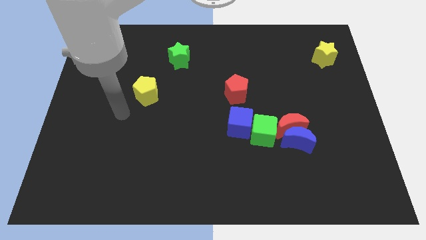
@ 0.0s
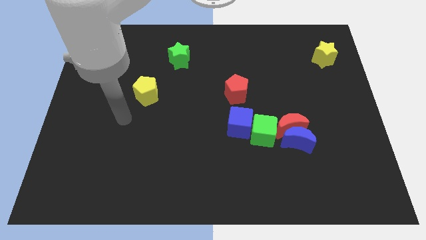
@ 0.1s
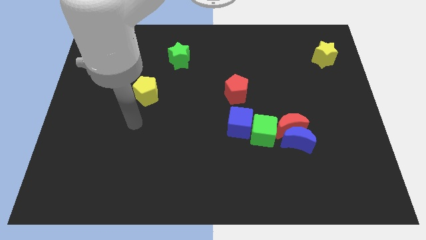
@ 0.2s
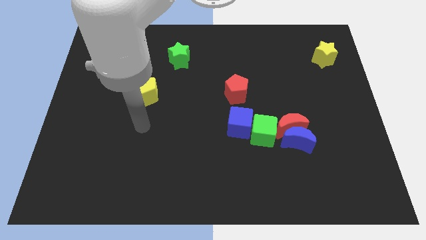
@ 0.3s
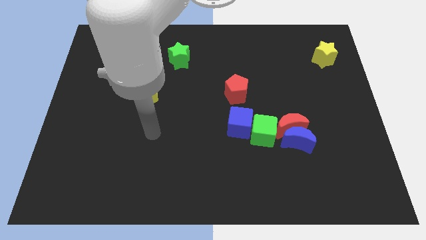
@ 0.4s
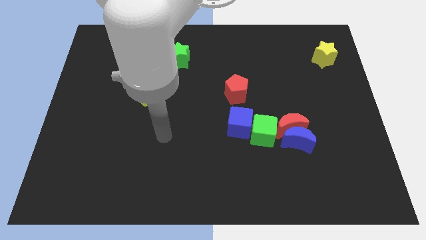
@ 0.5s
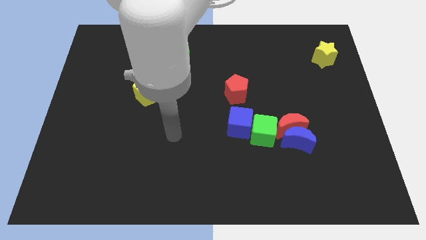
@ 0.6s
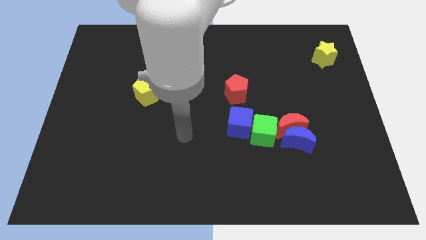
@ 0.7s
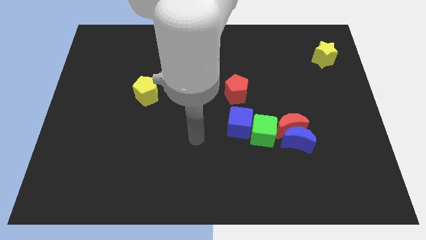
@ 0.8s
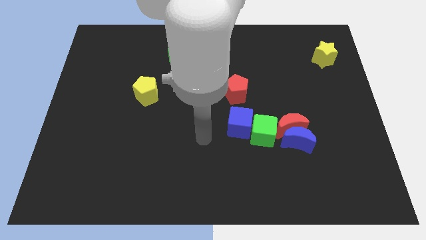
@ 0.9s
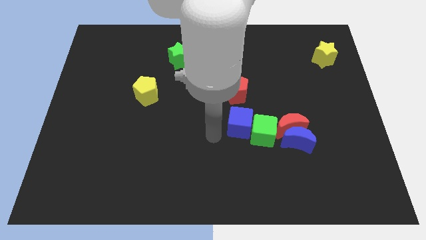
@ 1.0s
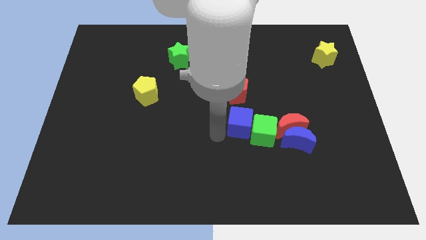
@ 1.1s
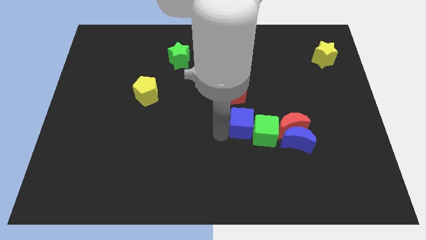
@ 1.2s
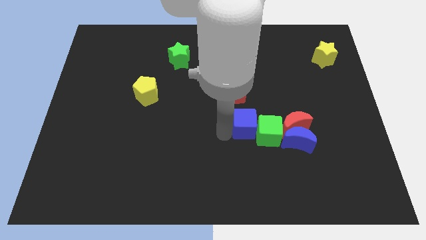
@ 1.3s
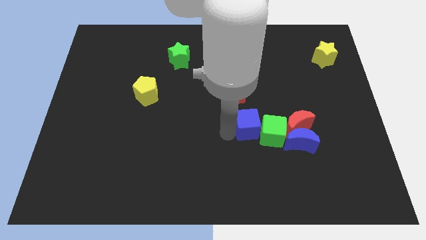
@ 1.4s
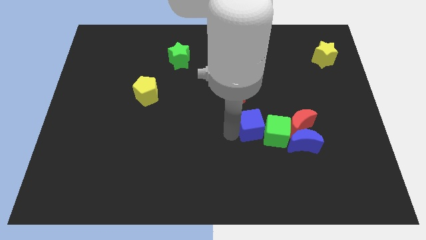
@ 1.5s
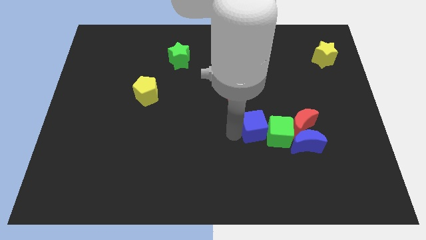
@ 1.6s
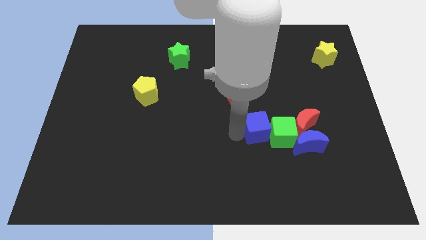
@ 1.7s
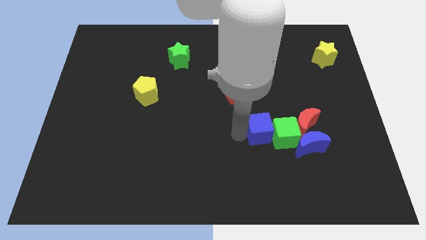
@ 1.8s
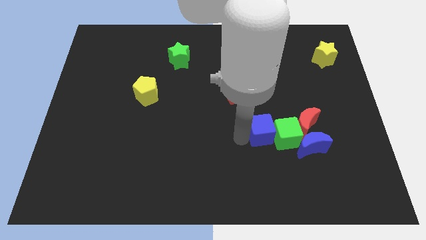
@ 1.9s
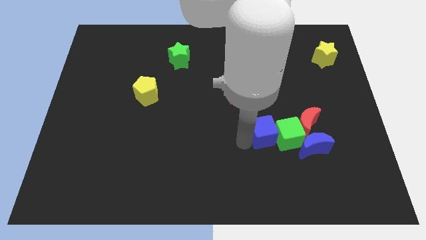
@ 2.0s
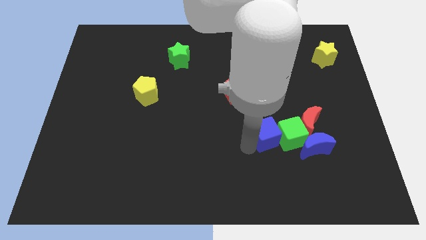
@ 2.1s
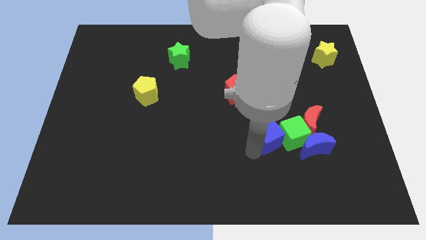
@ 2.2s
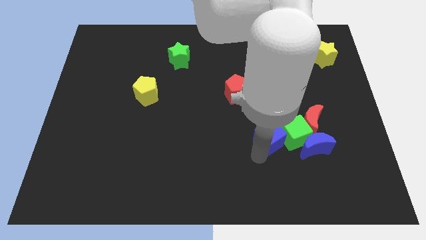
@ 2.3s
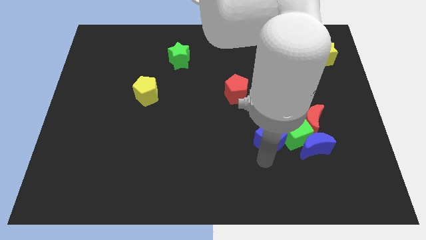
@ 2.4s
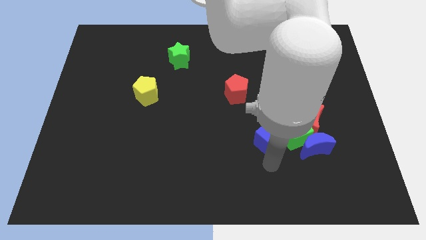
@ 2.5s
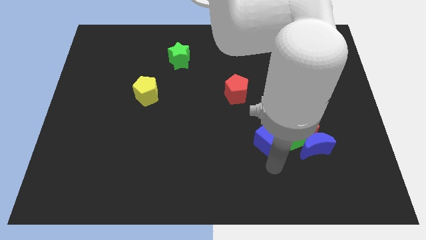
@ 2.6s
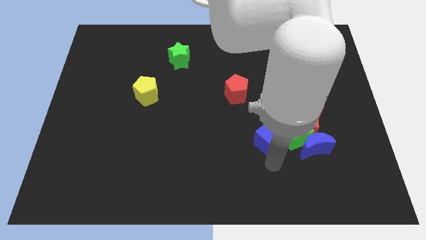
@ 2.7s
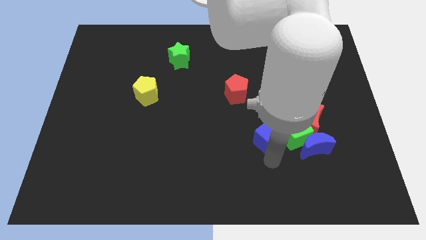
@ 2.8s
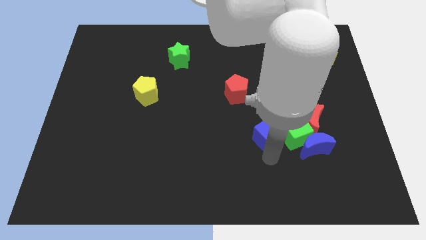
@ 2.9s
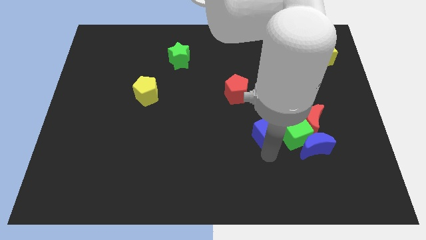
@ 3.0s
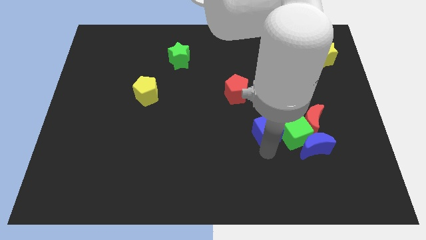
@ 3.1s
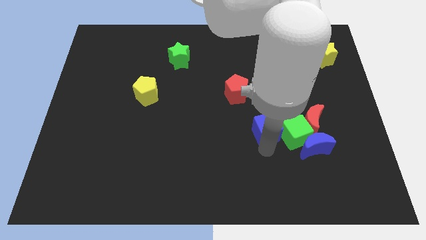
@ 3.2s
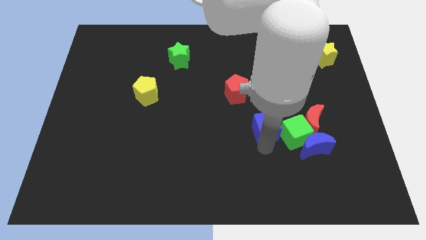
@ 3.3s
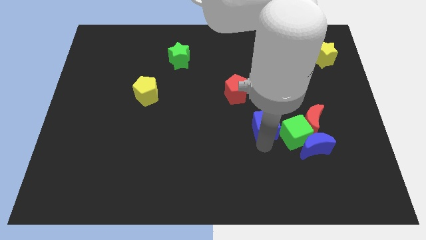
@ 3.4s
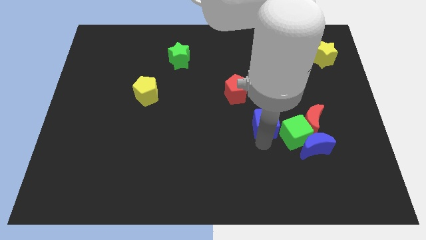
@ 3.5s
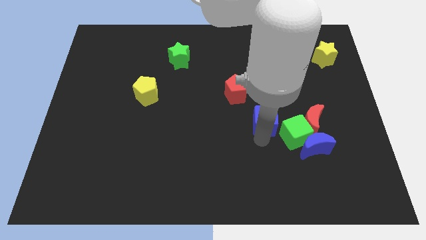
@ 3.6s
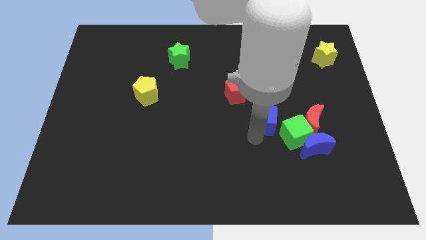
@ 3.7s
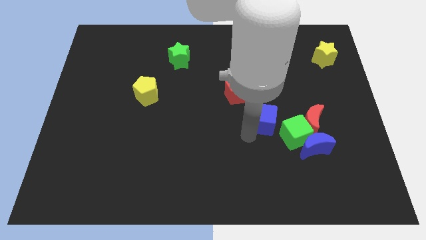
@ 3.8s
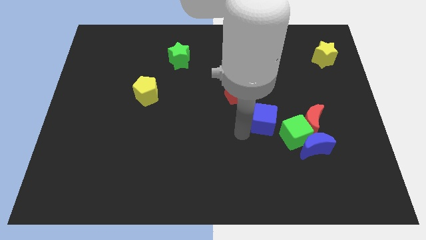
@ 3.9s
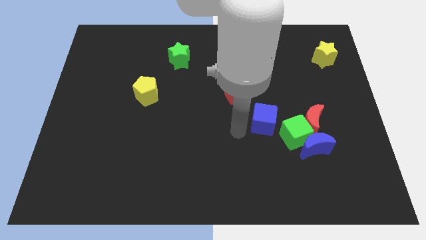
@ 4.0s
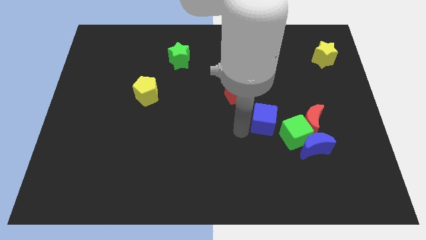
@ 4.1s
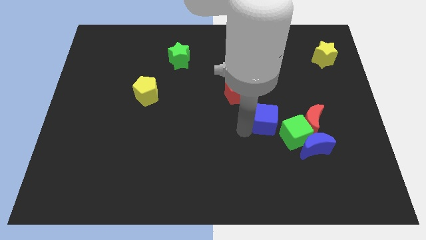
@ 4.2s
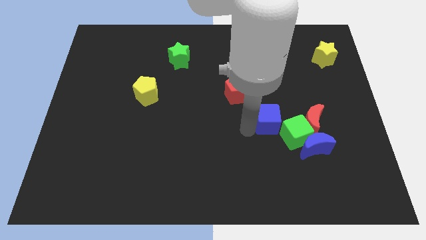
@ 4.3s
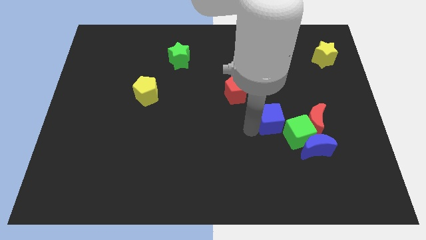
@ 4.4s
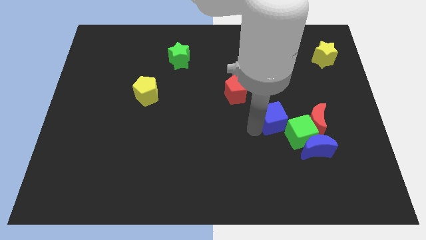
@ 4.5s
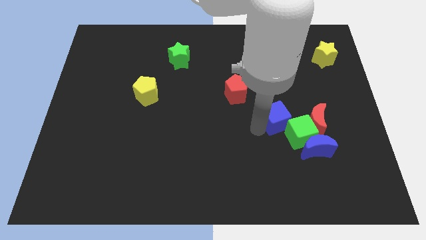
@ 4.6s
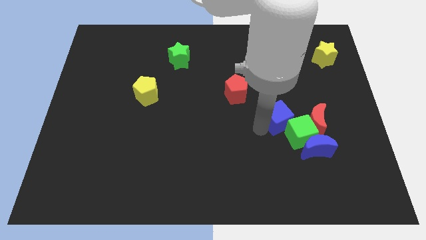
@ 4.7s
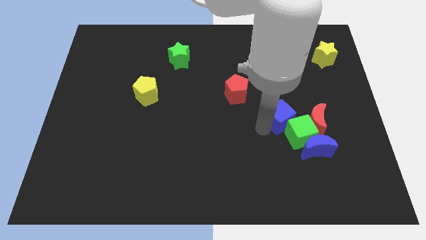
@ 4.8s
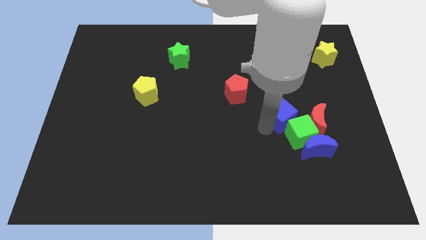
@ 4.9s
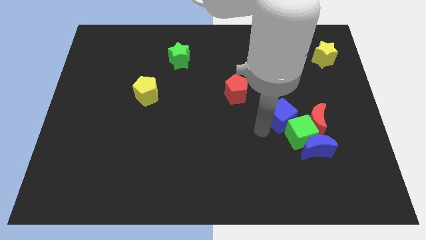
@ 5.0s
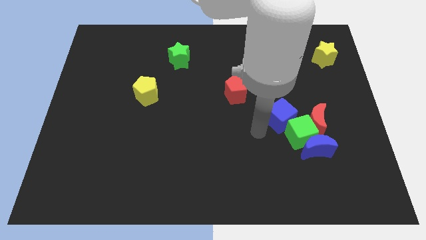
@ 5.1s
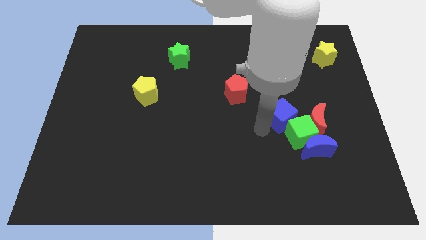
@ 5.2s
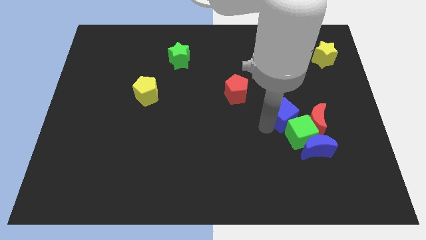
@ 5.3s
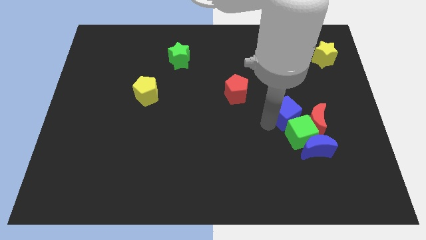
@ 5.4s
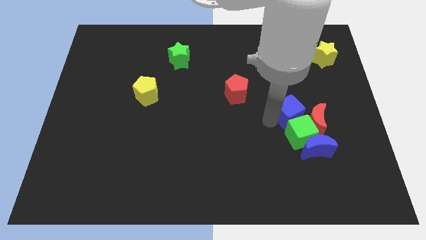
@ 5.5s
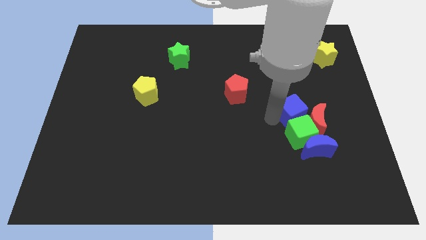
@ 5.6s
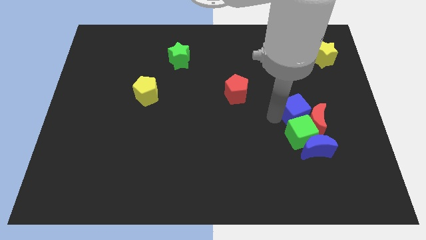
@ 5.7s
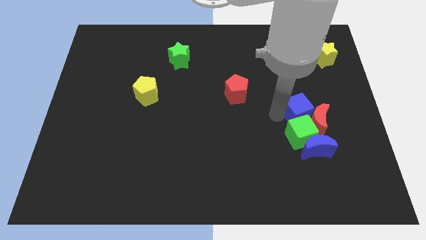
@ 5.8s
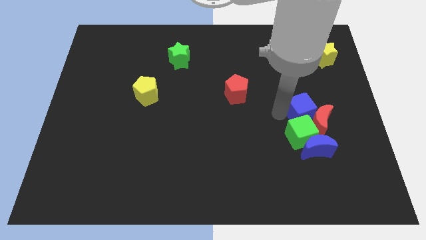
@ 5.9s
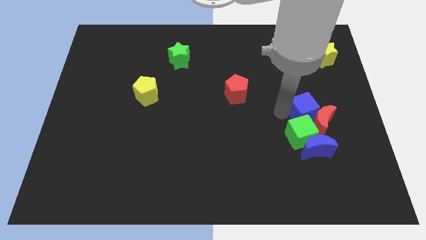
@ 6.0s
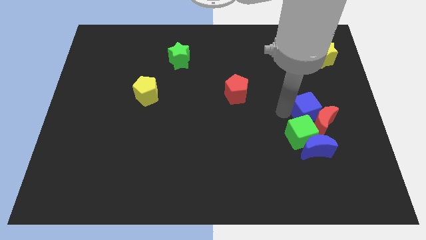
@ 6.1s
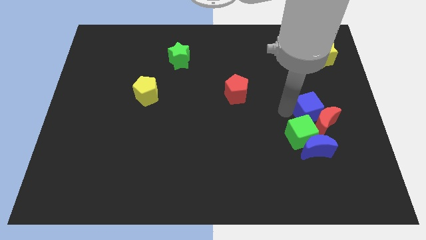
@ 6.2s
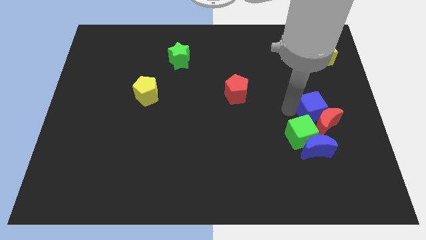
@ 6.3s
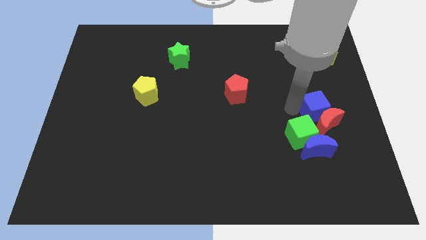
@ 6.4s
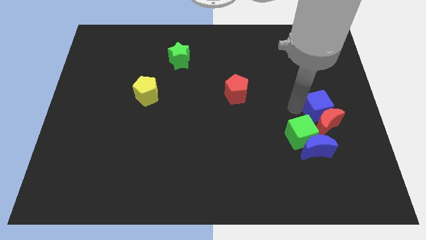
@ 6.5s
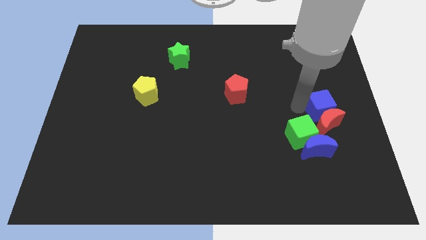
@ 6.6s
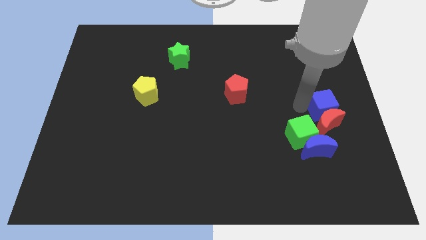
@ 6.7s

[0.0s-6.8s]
put the blue cube to the center right
